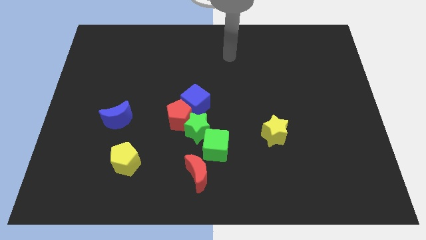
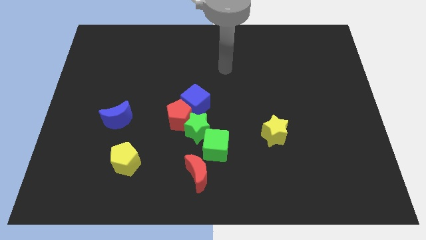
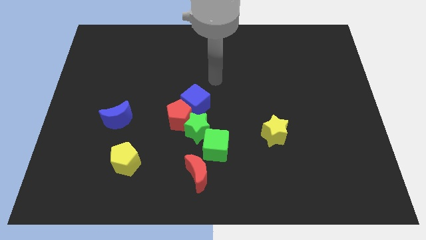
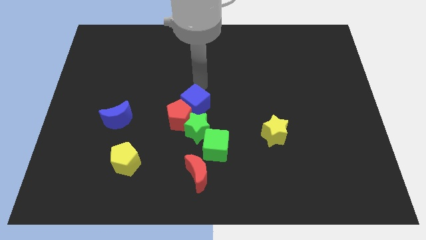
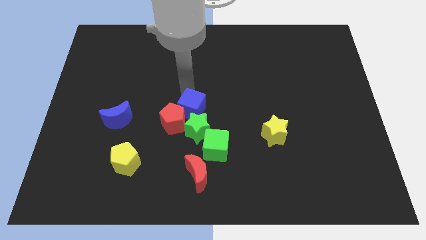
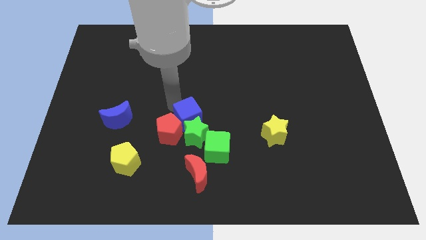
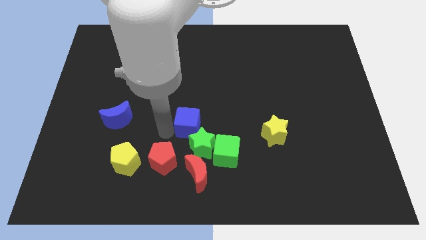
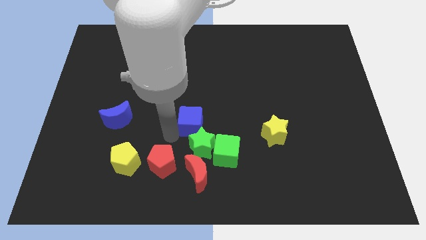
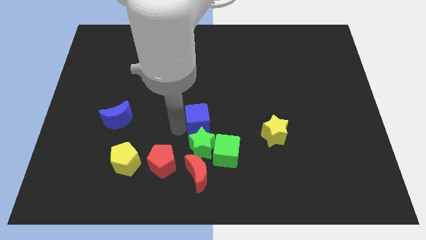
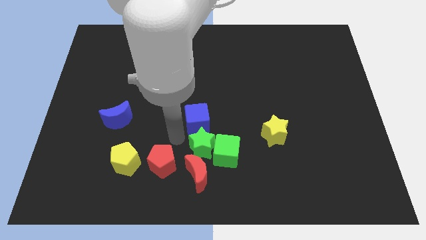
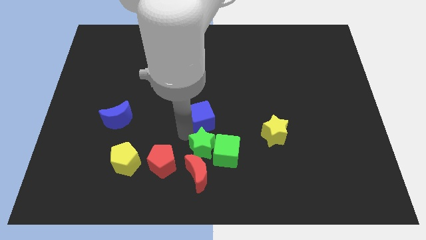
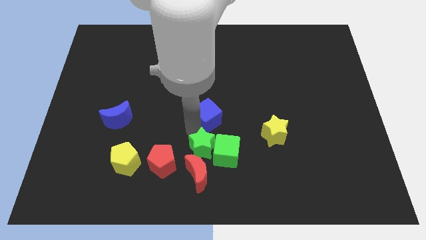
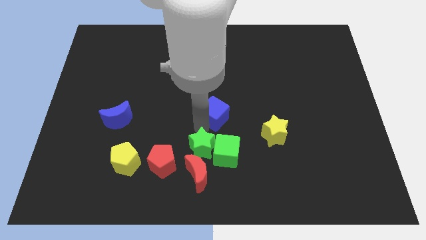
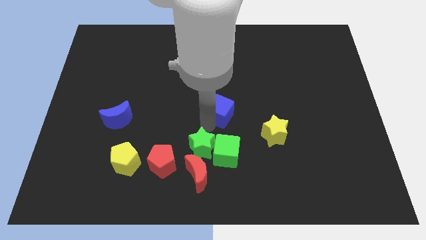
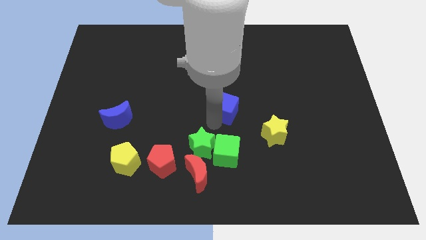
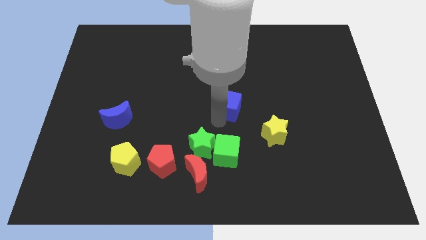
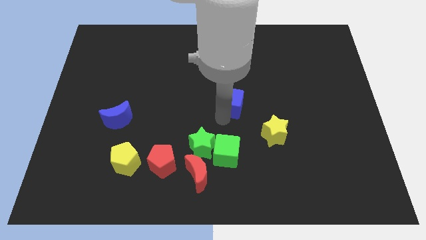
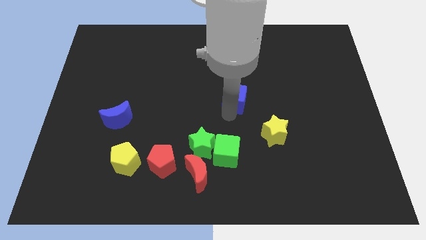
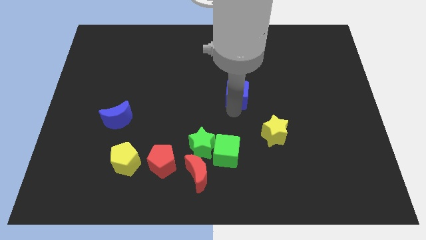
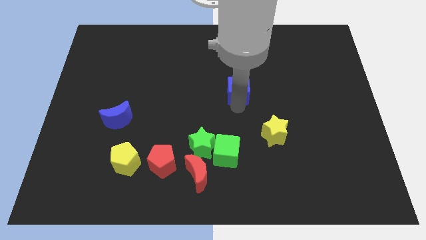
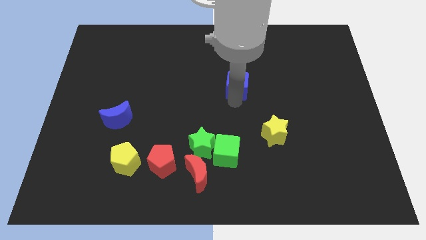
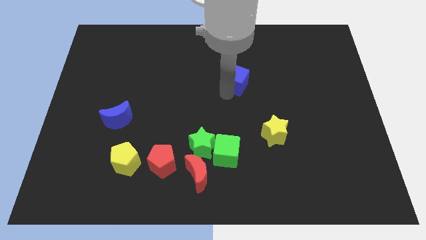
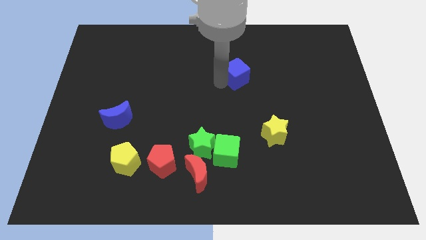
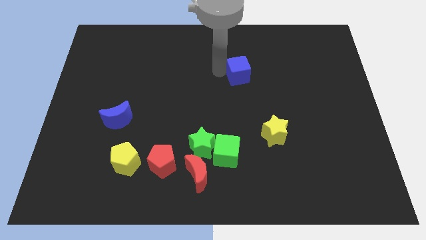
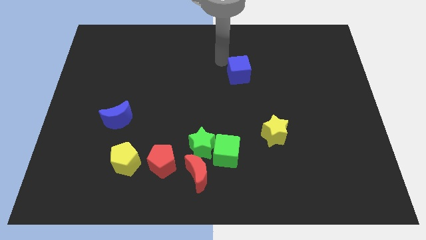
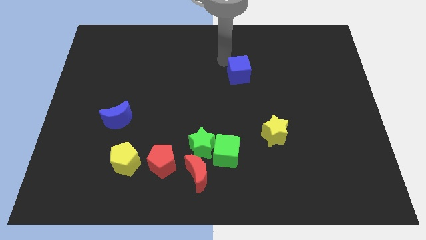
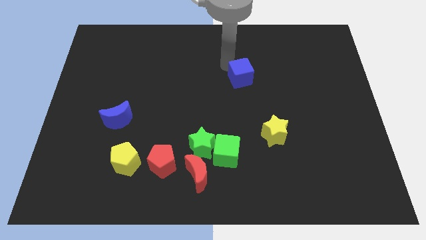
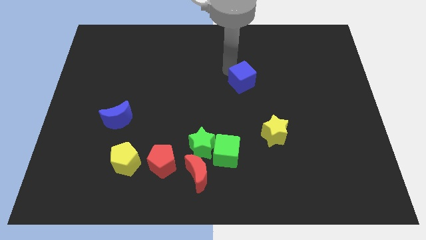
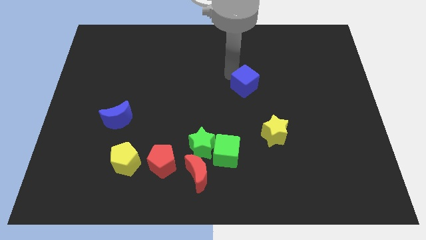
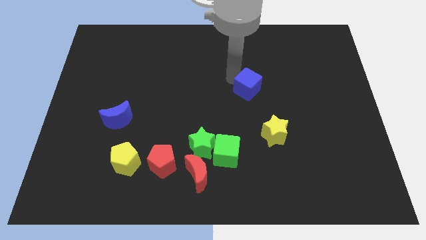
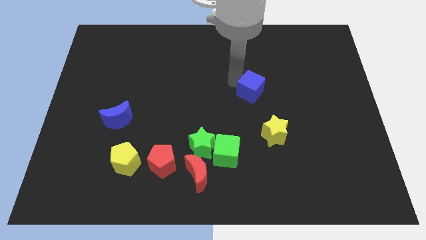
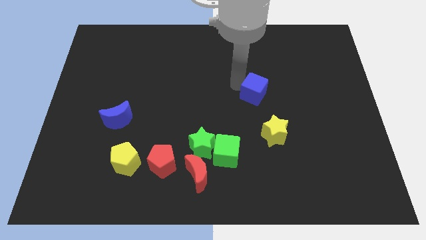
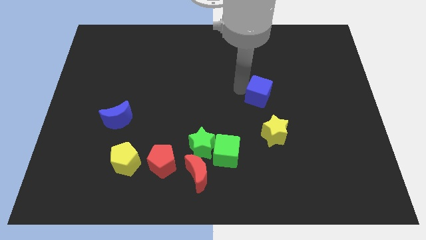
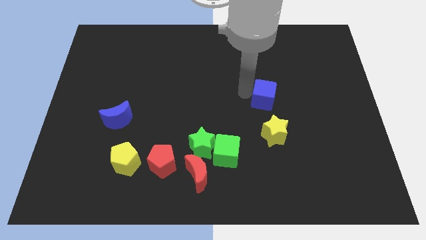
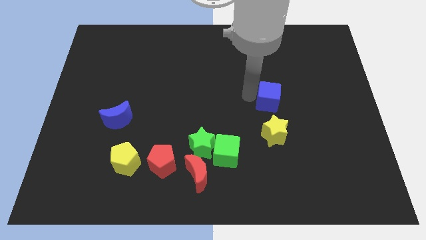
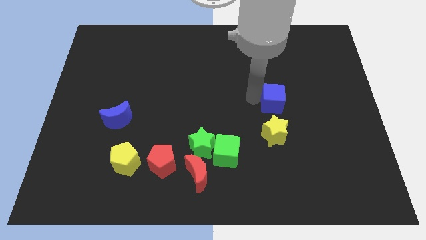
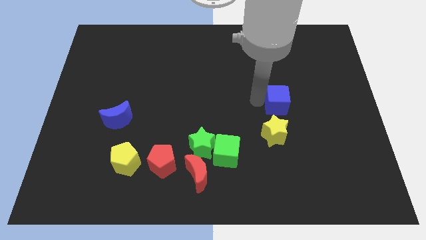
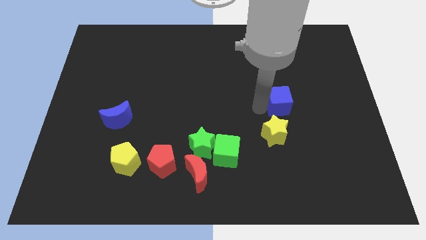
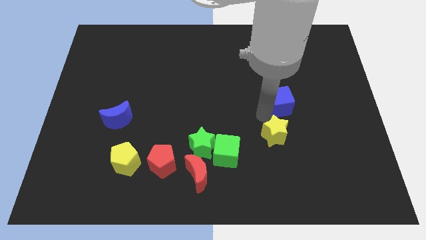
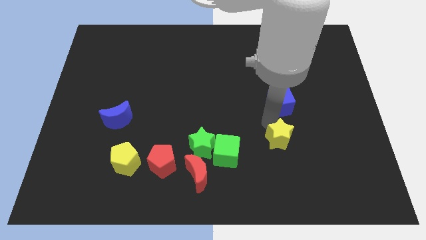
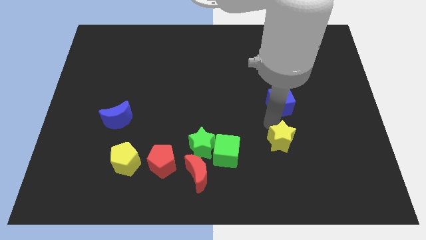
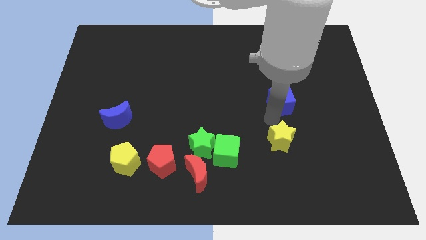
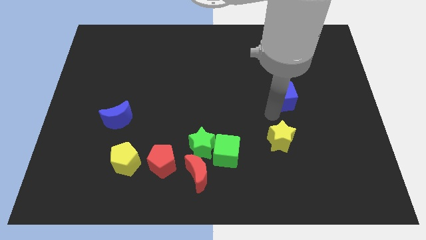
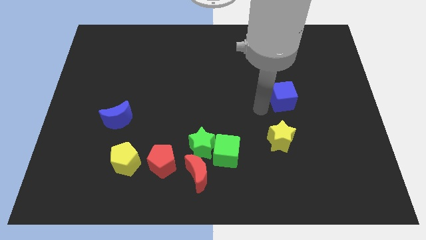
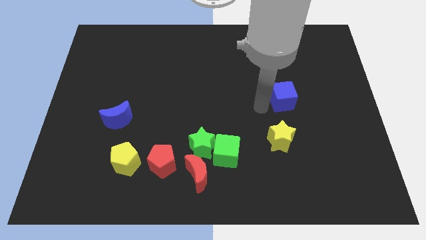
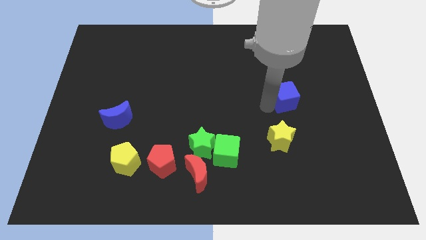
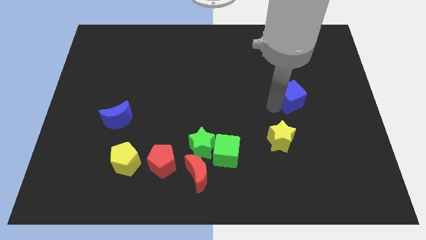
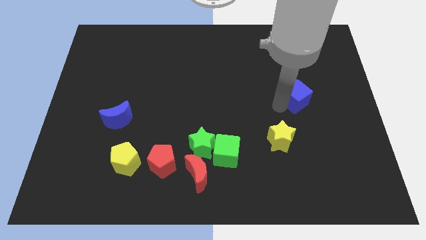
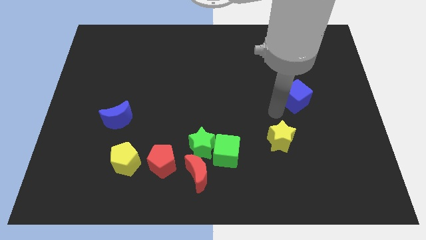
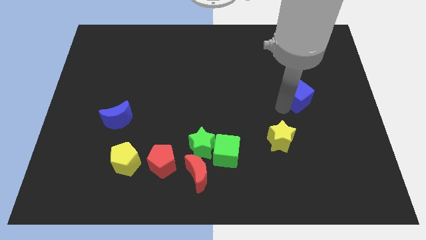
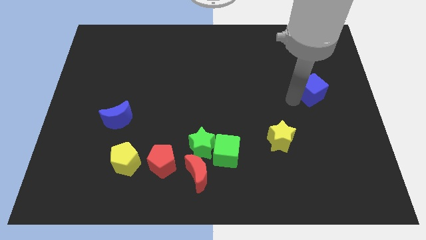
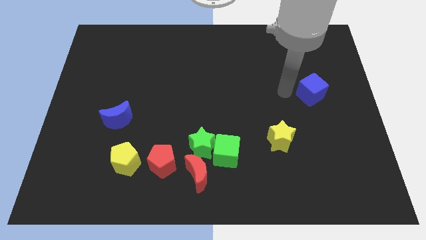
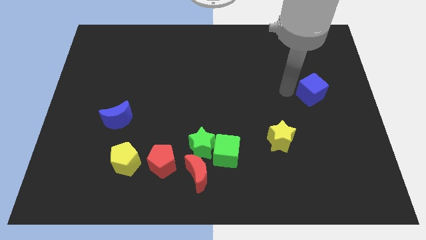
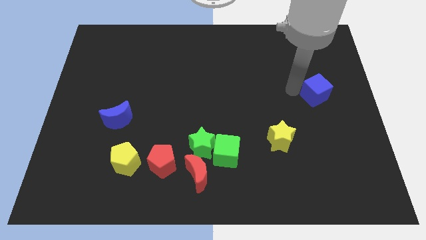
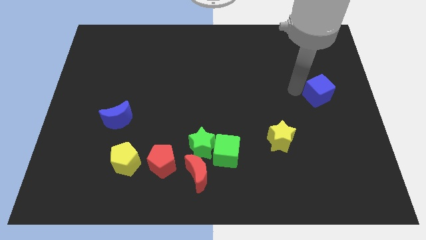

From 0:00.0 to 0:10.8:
put the blue cube to the right side
